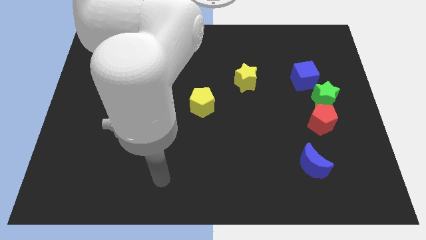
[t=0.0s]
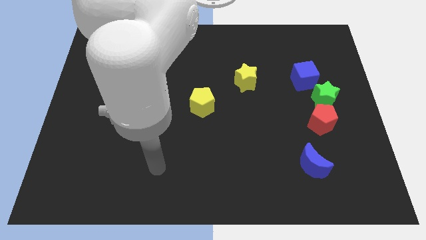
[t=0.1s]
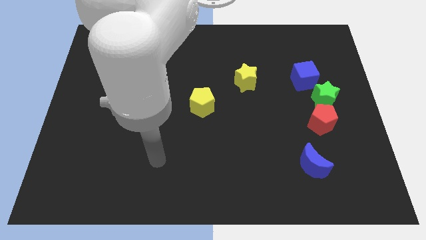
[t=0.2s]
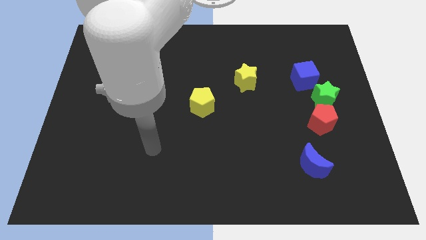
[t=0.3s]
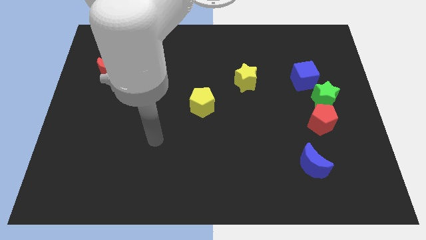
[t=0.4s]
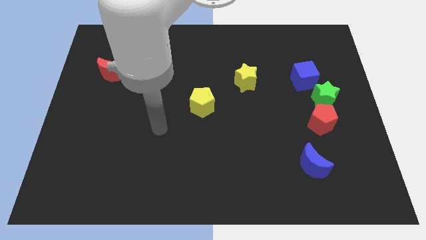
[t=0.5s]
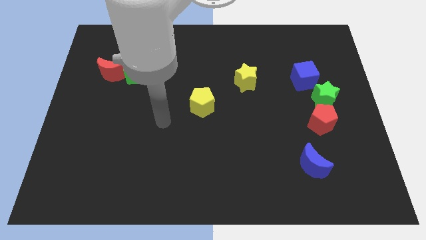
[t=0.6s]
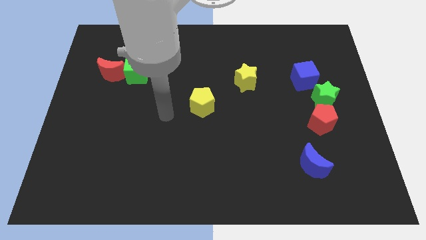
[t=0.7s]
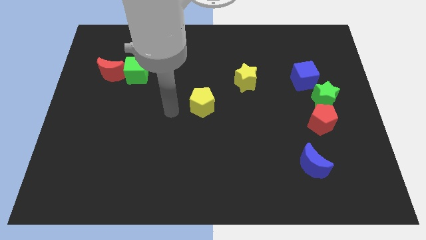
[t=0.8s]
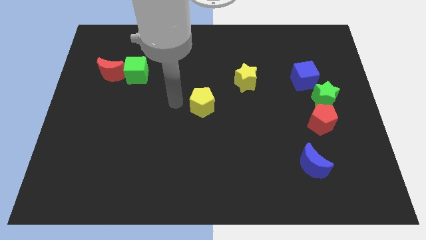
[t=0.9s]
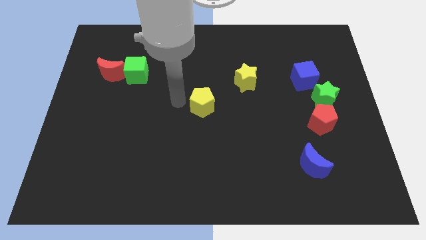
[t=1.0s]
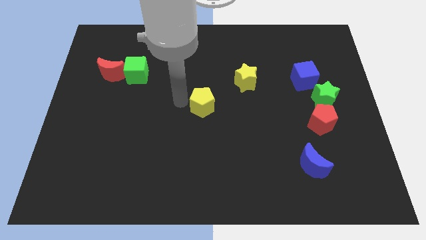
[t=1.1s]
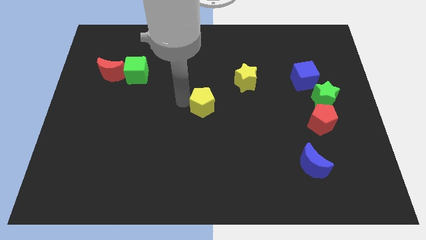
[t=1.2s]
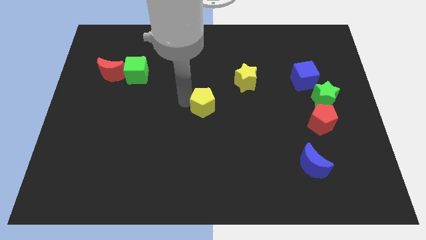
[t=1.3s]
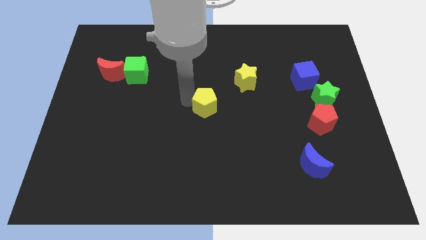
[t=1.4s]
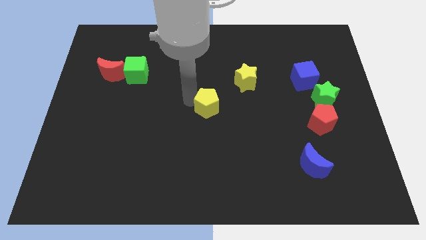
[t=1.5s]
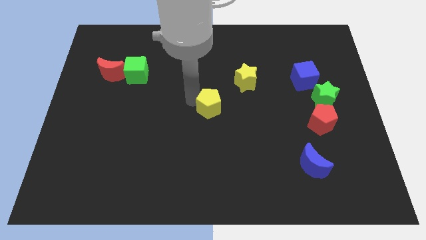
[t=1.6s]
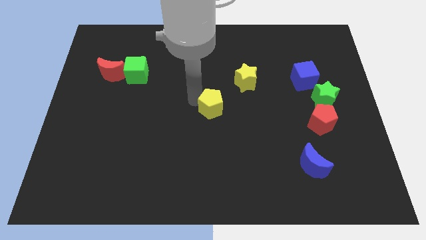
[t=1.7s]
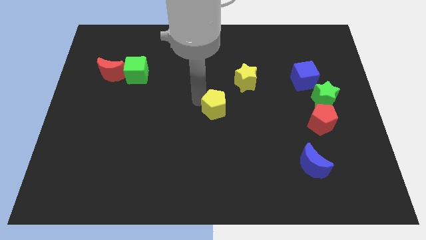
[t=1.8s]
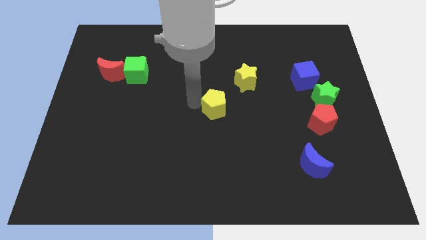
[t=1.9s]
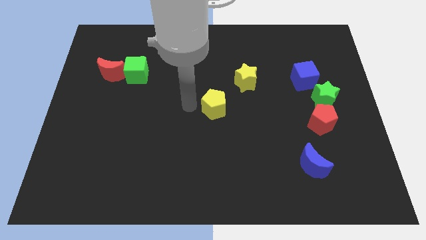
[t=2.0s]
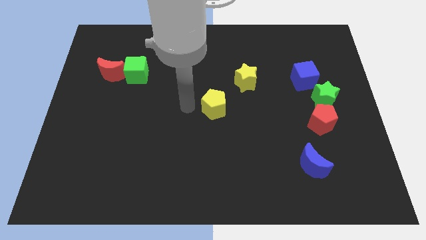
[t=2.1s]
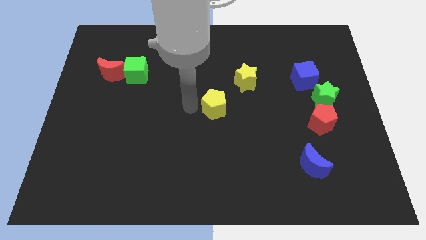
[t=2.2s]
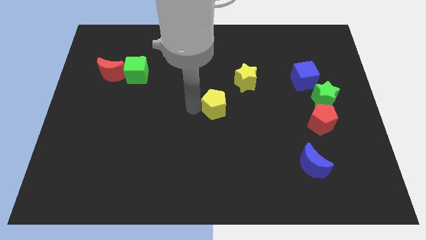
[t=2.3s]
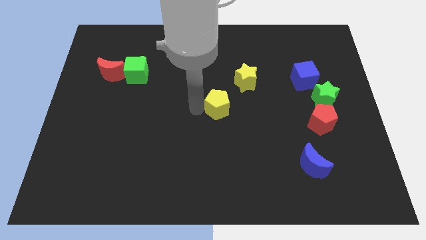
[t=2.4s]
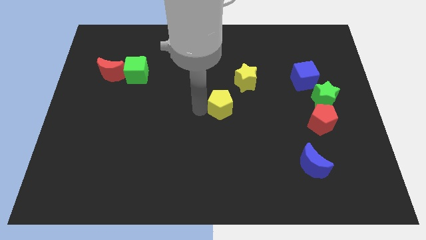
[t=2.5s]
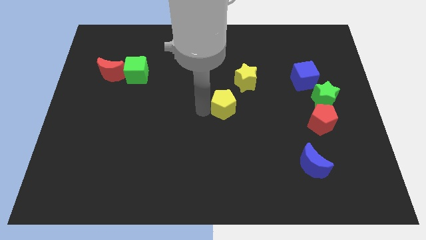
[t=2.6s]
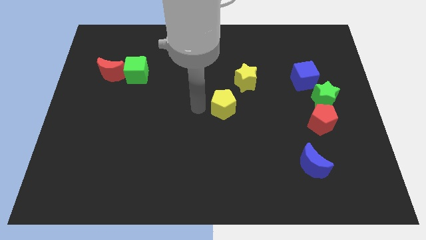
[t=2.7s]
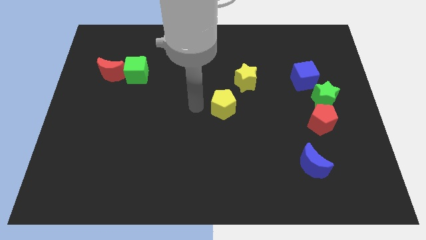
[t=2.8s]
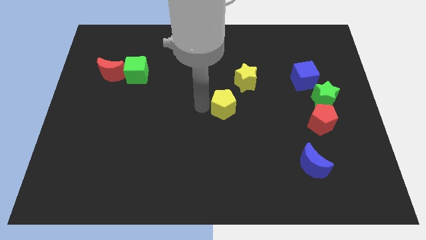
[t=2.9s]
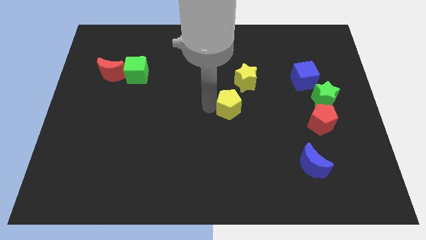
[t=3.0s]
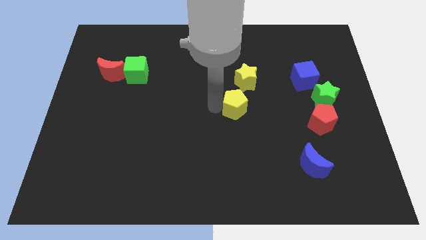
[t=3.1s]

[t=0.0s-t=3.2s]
slightly move the yellow pentagon right

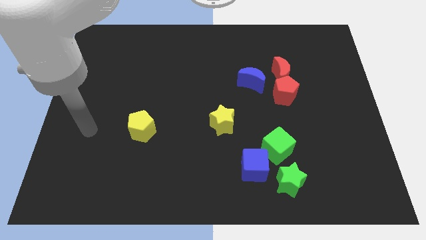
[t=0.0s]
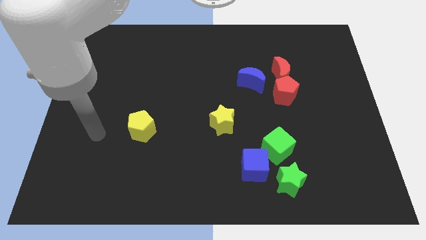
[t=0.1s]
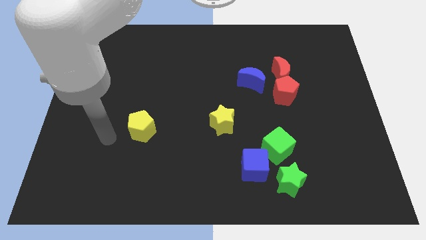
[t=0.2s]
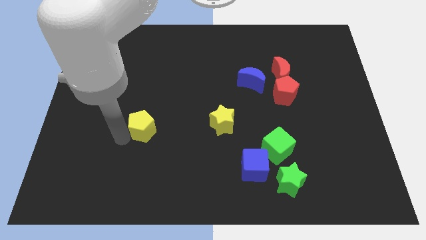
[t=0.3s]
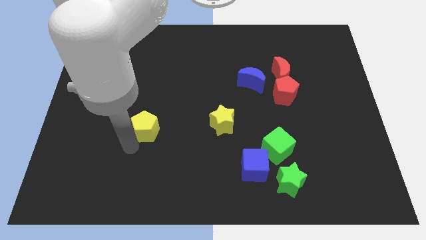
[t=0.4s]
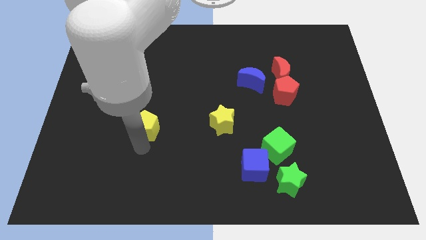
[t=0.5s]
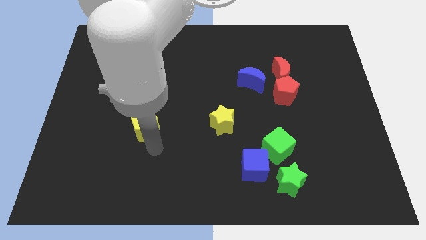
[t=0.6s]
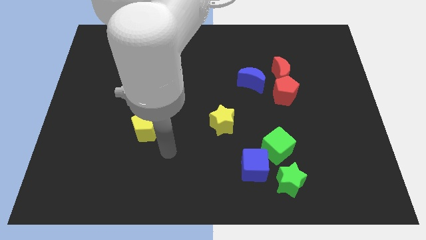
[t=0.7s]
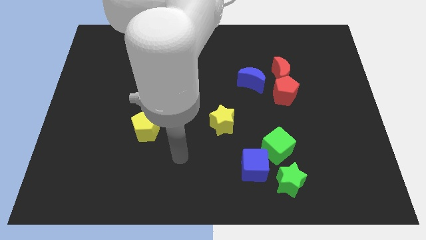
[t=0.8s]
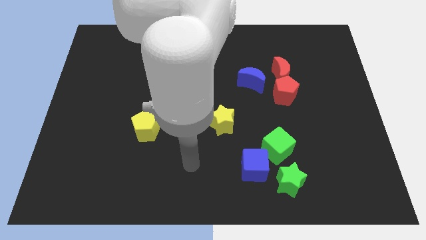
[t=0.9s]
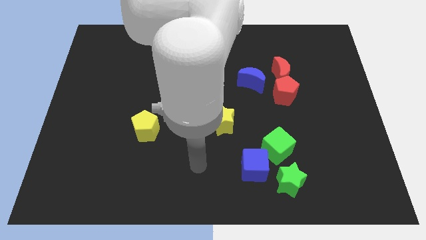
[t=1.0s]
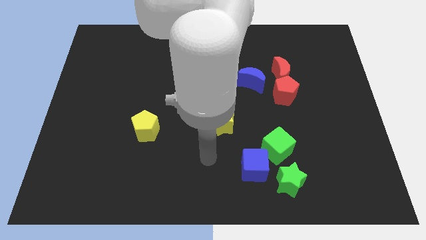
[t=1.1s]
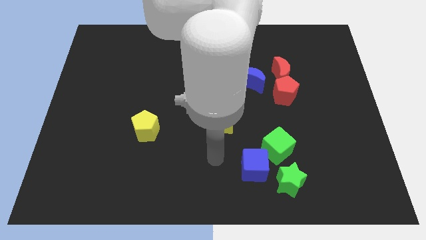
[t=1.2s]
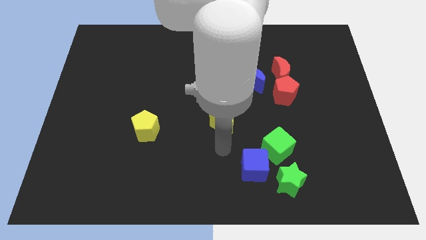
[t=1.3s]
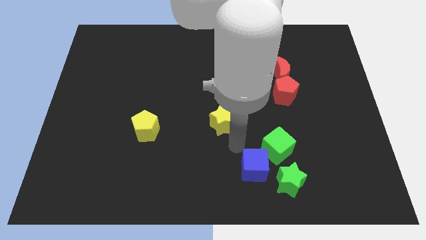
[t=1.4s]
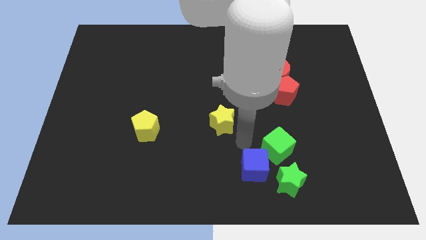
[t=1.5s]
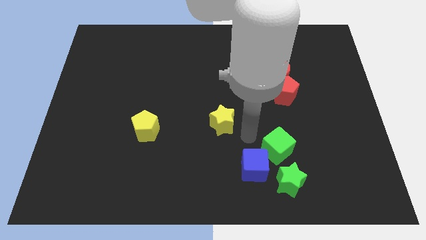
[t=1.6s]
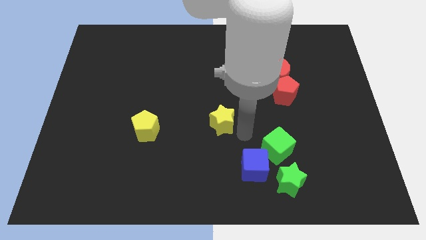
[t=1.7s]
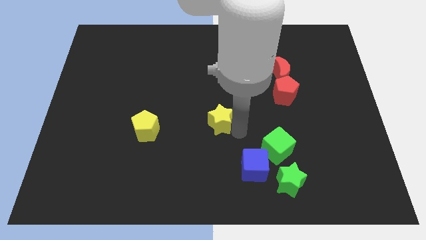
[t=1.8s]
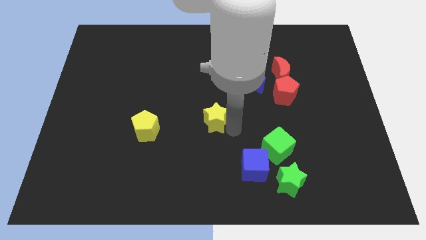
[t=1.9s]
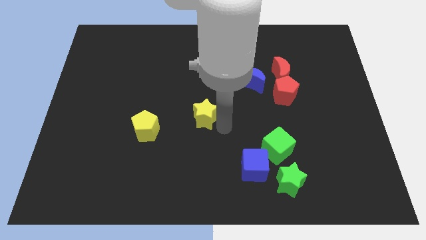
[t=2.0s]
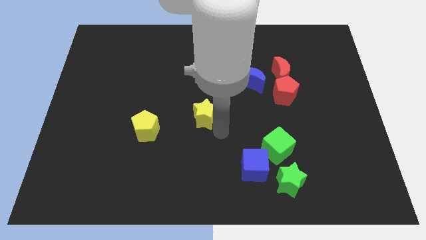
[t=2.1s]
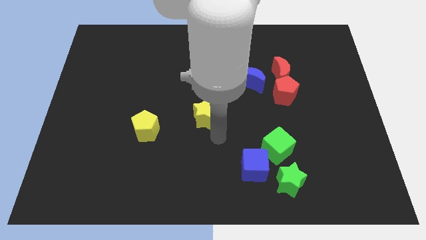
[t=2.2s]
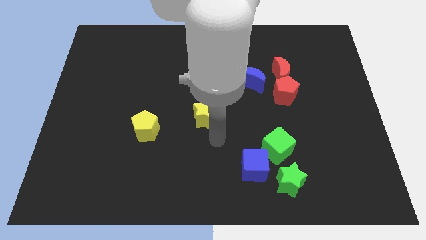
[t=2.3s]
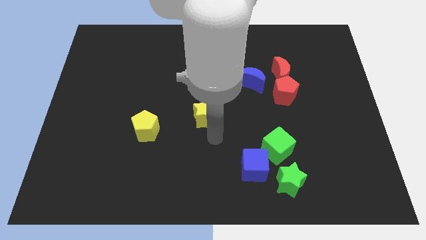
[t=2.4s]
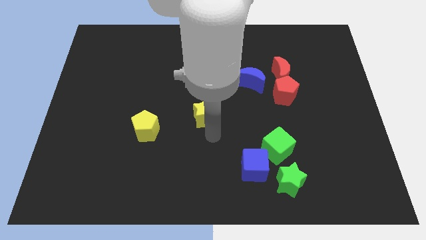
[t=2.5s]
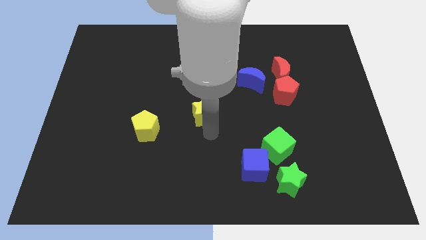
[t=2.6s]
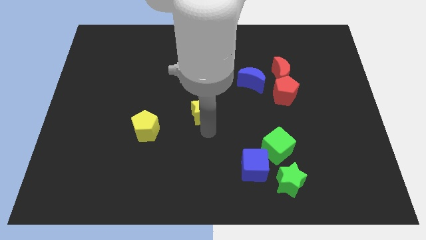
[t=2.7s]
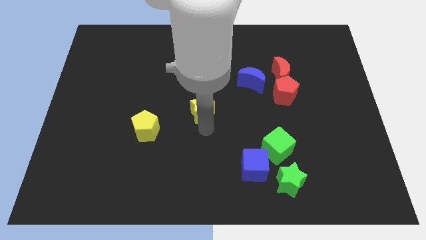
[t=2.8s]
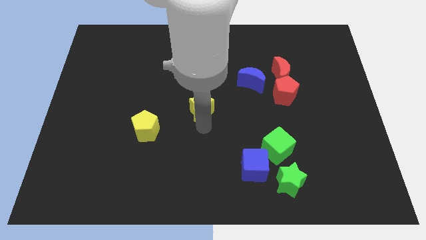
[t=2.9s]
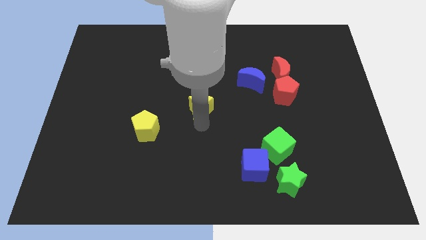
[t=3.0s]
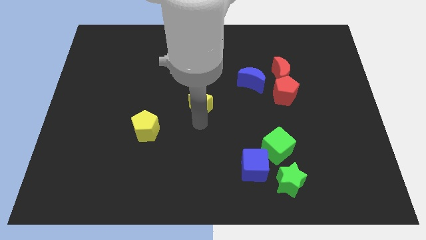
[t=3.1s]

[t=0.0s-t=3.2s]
move the yellow star somewhat up and to the left

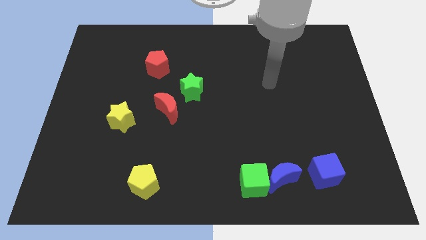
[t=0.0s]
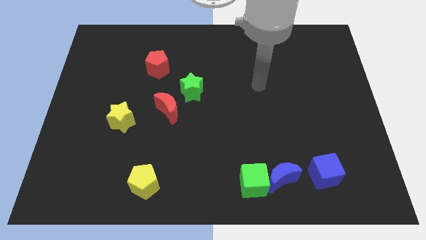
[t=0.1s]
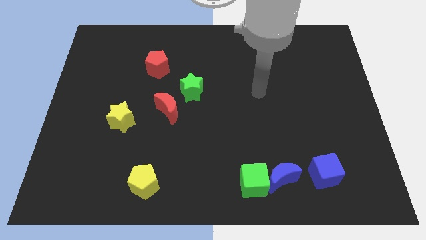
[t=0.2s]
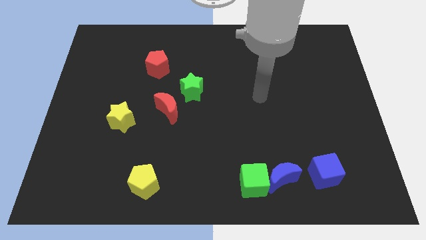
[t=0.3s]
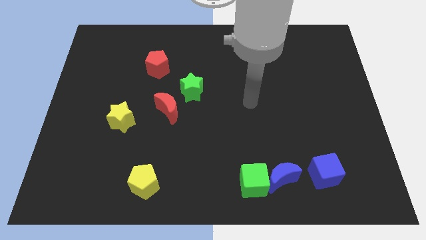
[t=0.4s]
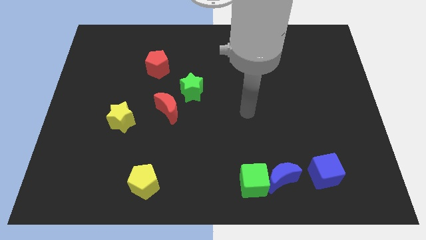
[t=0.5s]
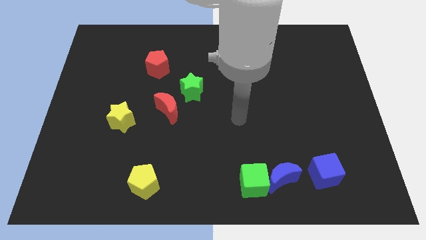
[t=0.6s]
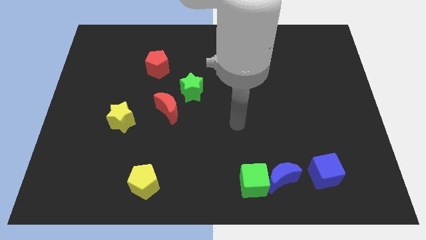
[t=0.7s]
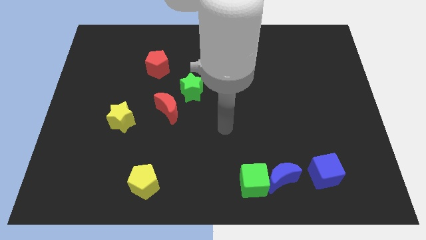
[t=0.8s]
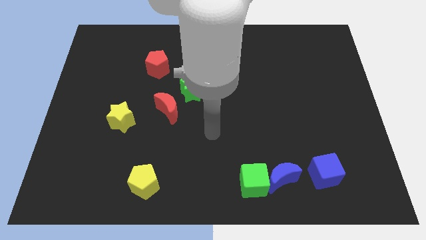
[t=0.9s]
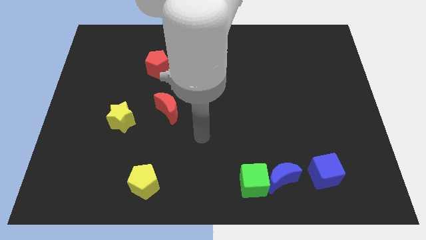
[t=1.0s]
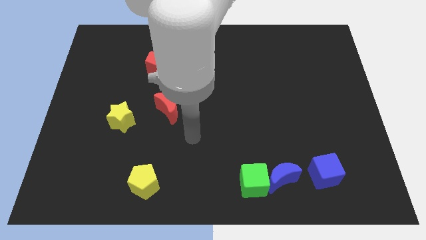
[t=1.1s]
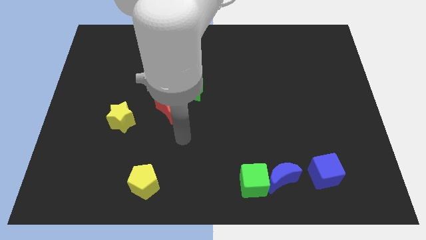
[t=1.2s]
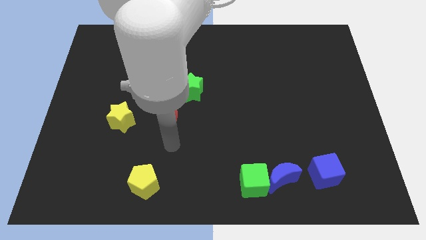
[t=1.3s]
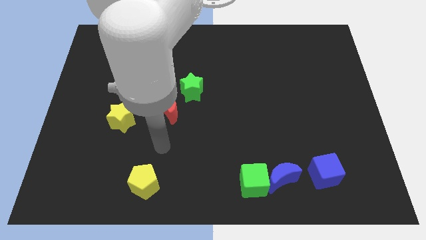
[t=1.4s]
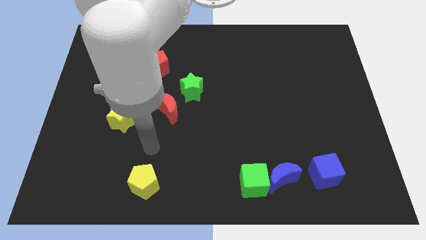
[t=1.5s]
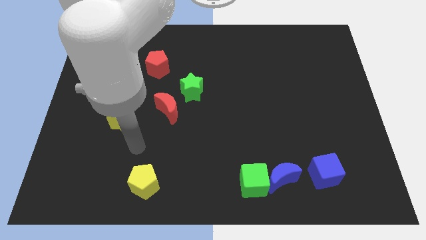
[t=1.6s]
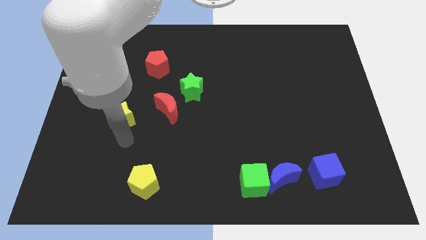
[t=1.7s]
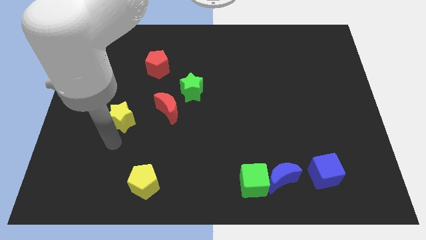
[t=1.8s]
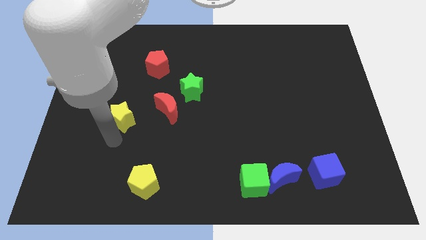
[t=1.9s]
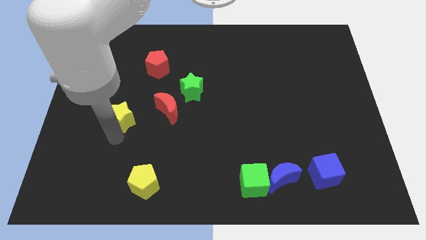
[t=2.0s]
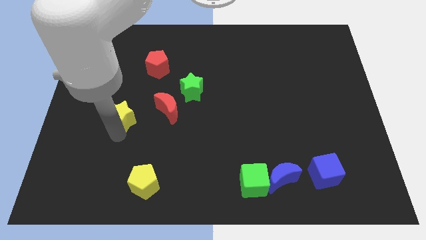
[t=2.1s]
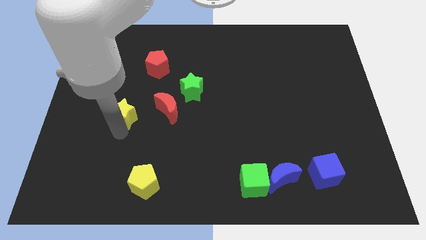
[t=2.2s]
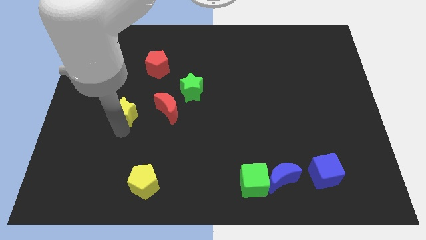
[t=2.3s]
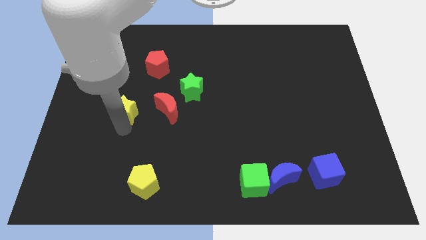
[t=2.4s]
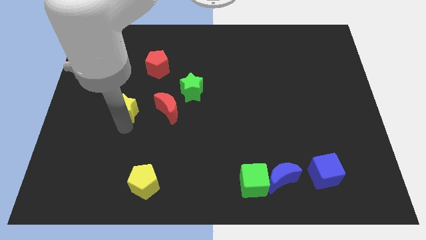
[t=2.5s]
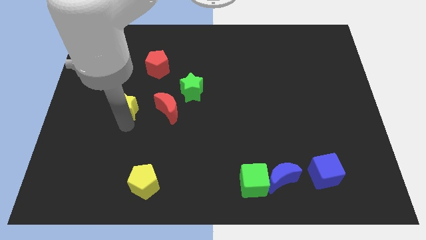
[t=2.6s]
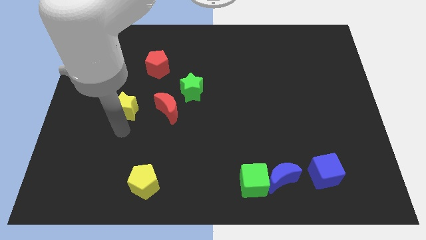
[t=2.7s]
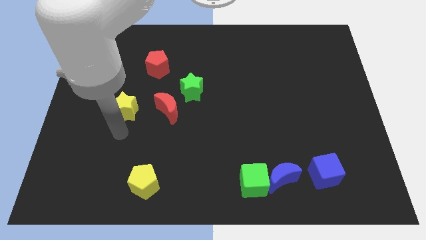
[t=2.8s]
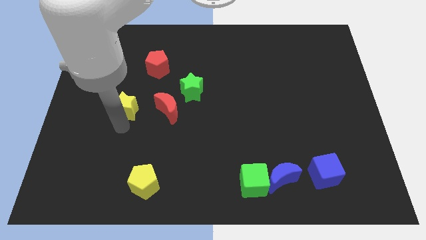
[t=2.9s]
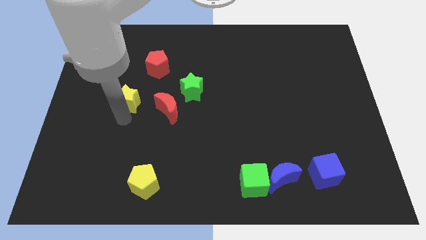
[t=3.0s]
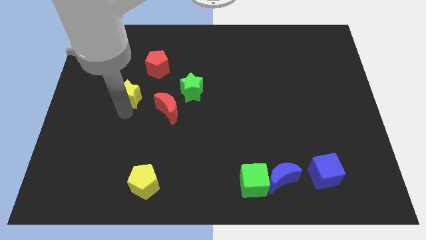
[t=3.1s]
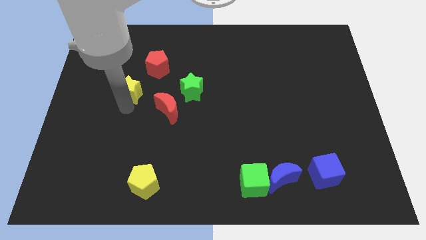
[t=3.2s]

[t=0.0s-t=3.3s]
push the yellow star upwards slightly
